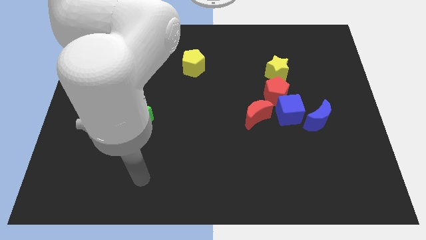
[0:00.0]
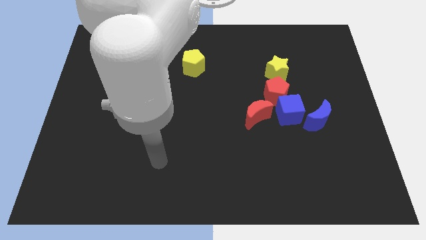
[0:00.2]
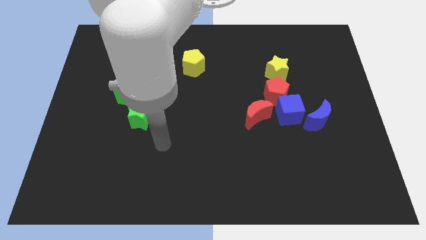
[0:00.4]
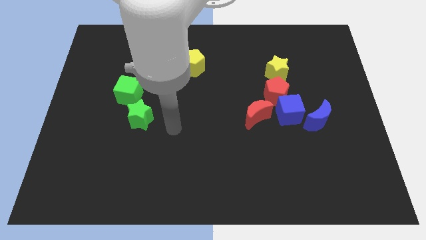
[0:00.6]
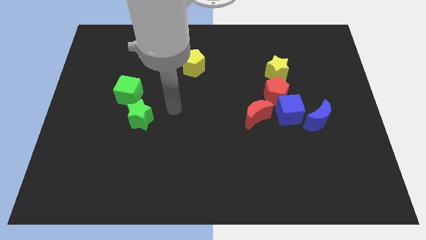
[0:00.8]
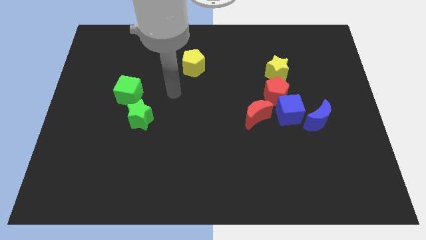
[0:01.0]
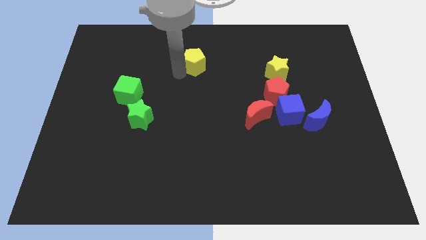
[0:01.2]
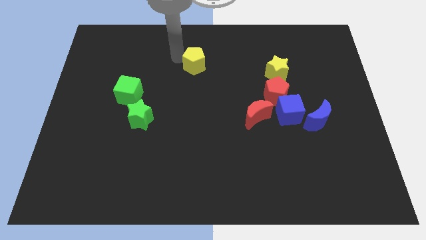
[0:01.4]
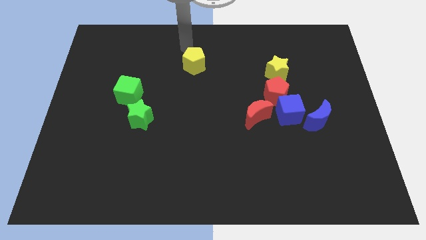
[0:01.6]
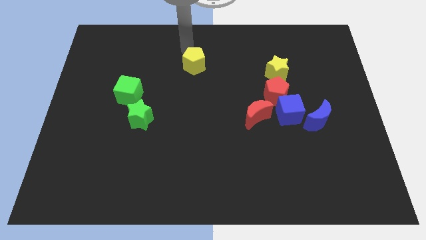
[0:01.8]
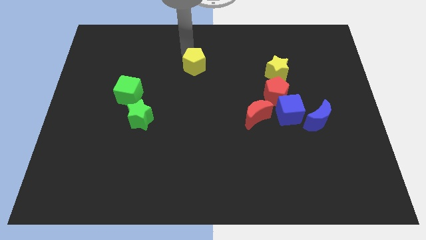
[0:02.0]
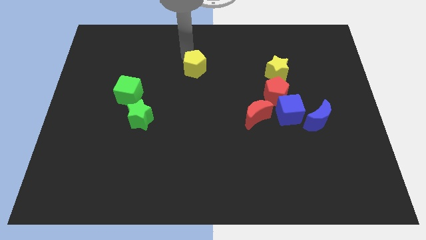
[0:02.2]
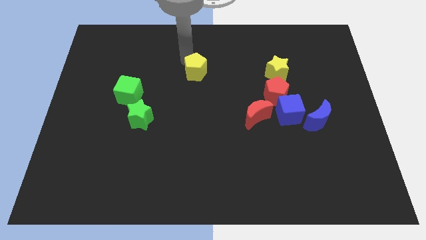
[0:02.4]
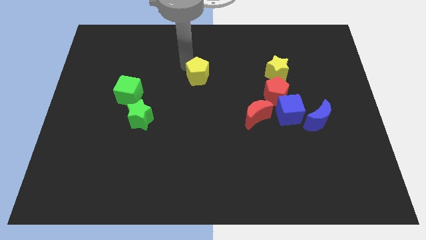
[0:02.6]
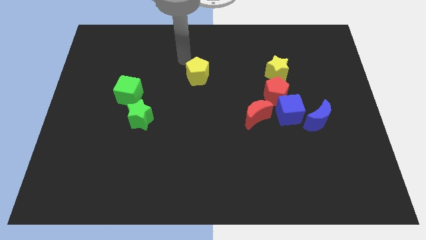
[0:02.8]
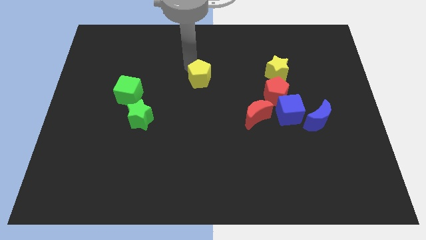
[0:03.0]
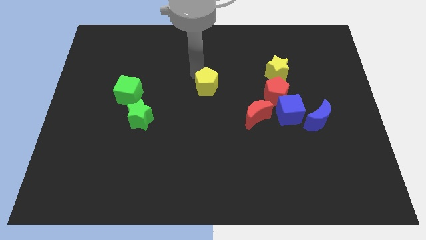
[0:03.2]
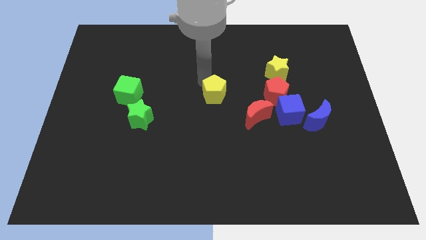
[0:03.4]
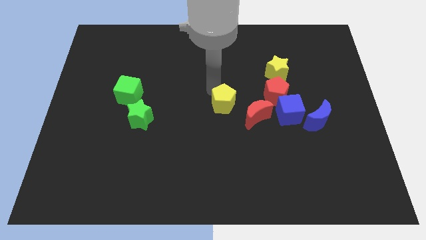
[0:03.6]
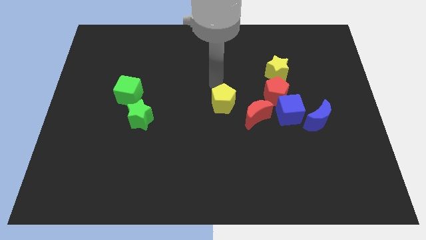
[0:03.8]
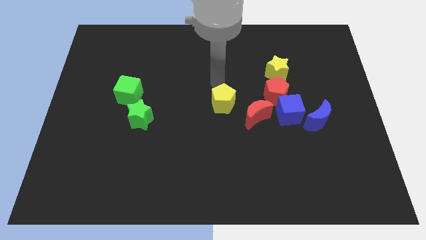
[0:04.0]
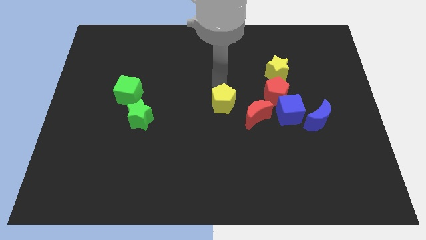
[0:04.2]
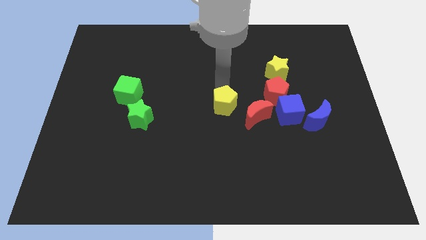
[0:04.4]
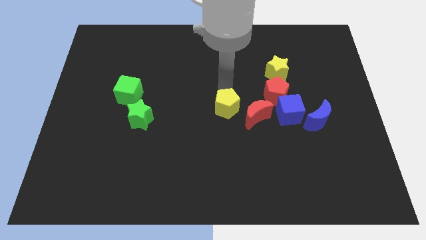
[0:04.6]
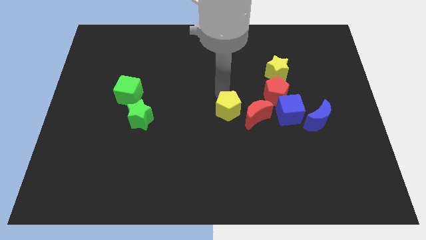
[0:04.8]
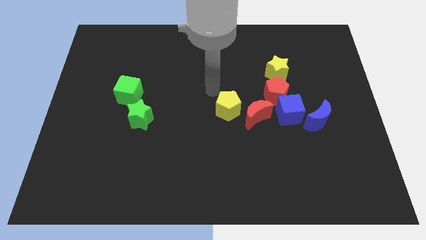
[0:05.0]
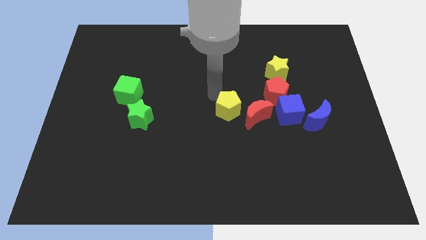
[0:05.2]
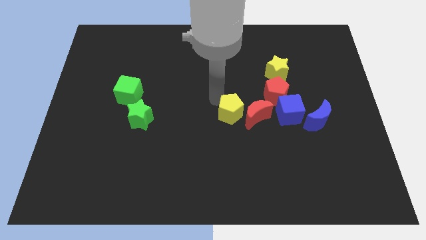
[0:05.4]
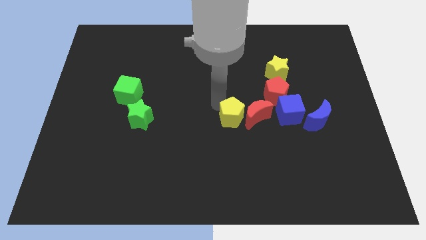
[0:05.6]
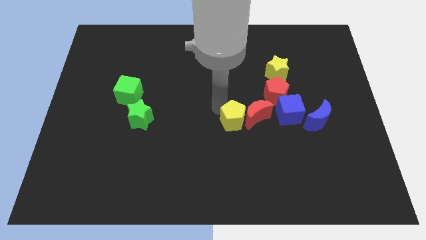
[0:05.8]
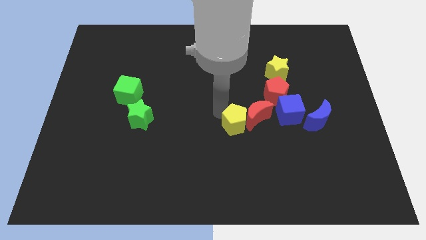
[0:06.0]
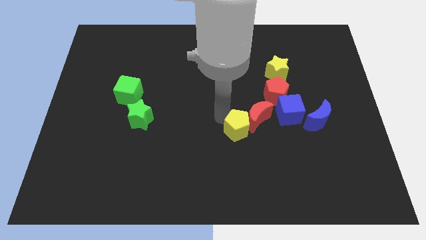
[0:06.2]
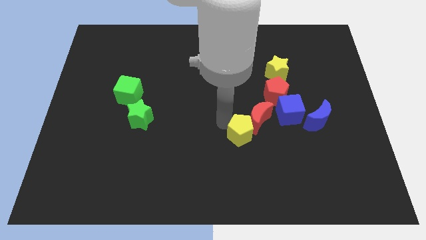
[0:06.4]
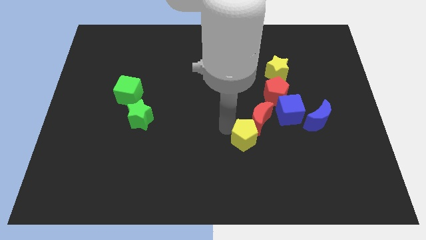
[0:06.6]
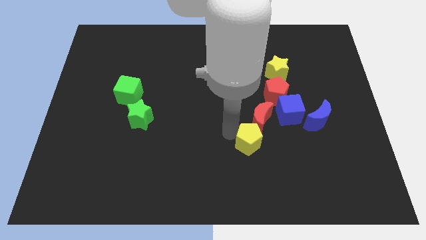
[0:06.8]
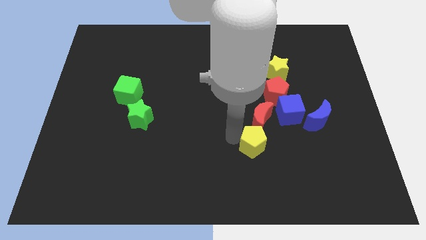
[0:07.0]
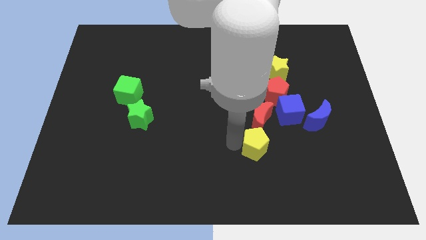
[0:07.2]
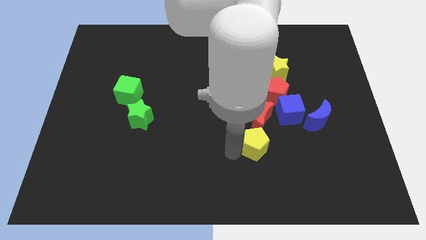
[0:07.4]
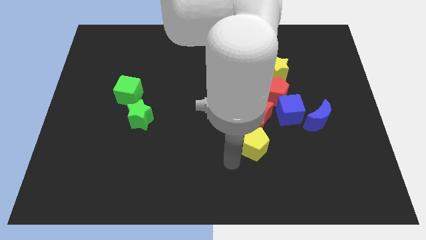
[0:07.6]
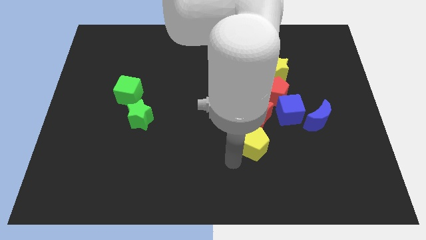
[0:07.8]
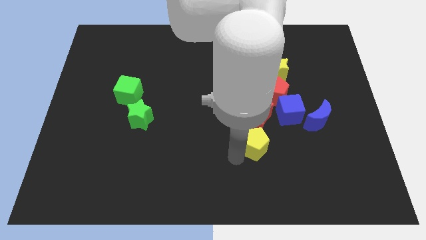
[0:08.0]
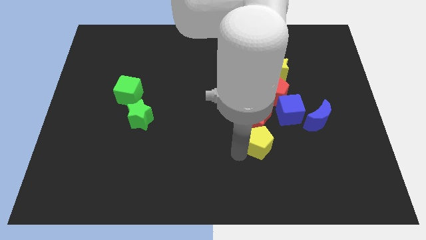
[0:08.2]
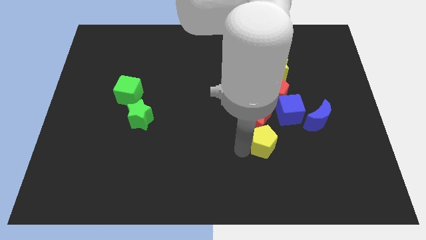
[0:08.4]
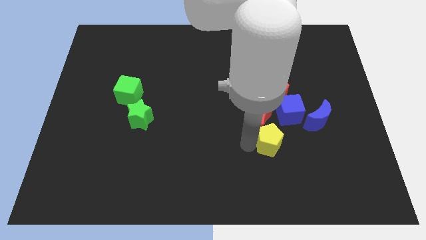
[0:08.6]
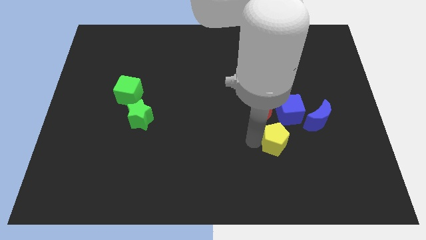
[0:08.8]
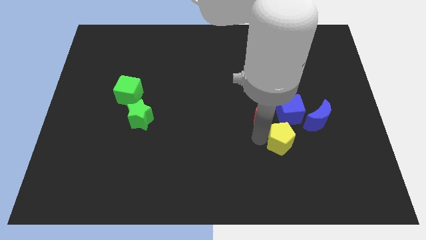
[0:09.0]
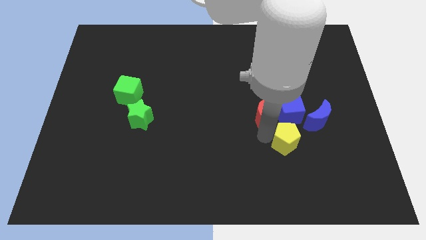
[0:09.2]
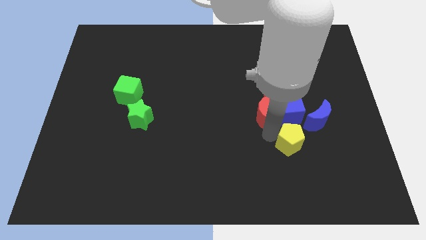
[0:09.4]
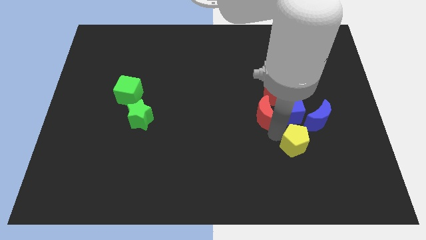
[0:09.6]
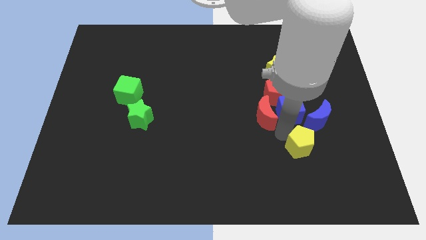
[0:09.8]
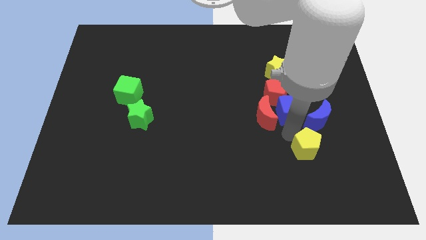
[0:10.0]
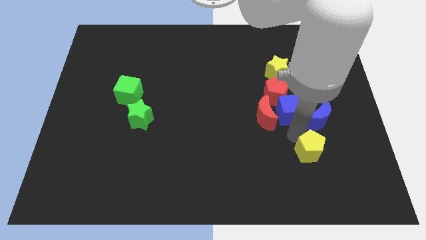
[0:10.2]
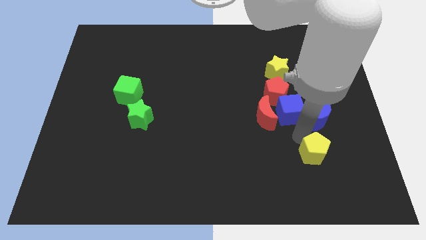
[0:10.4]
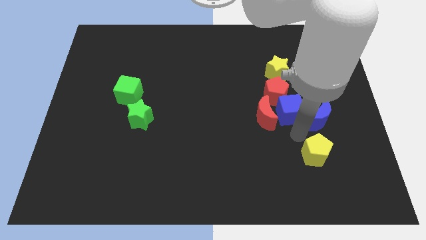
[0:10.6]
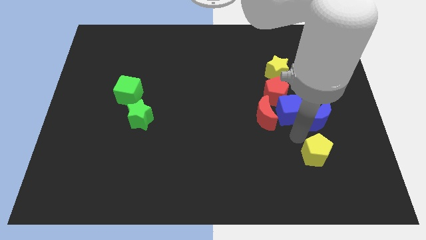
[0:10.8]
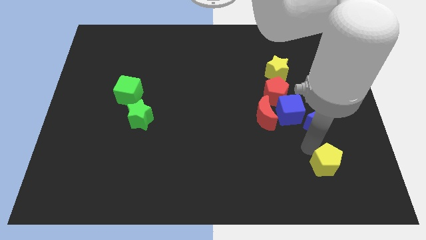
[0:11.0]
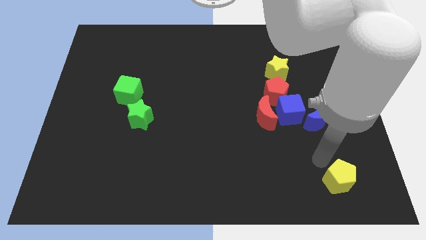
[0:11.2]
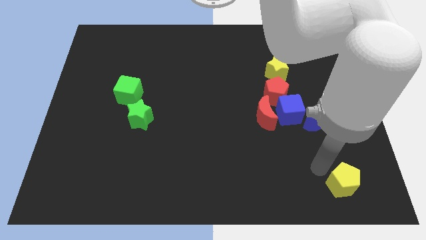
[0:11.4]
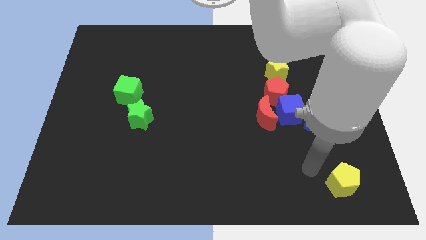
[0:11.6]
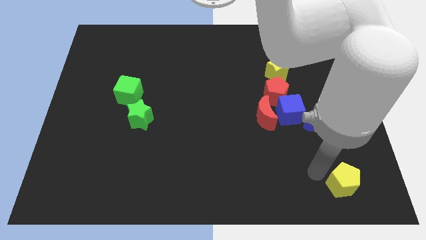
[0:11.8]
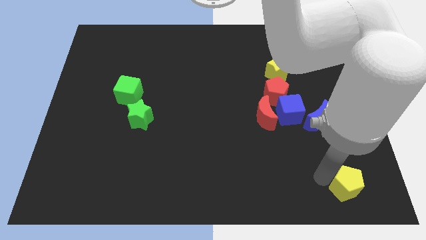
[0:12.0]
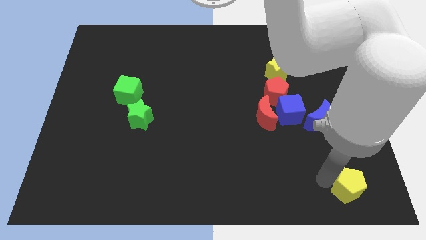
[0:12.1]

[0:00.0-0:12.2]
move the yellow pentagon to the bottom right

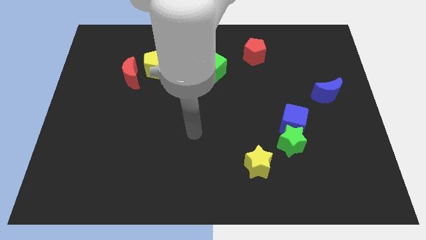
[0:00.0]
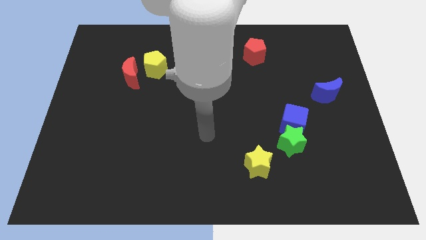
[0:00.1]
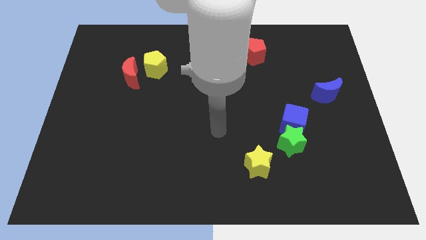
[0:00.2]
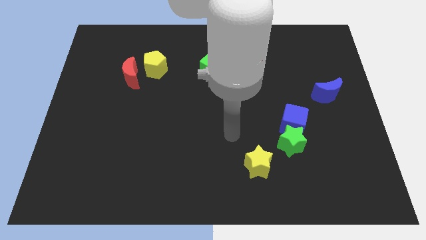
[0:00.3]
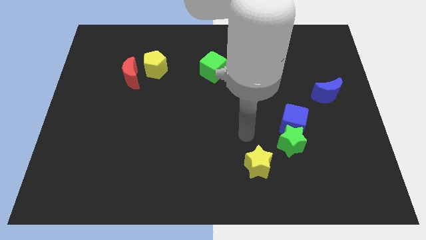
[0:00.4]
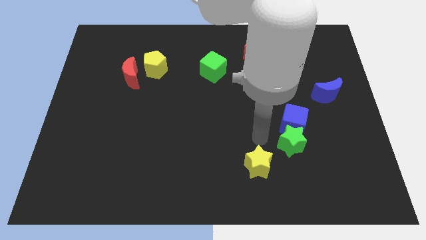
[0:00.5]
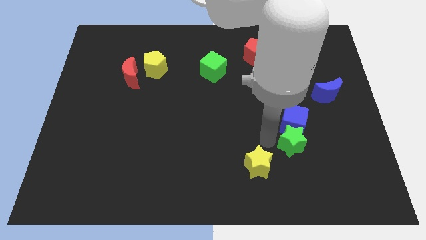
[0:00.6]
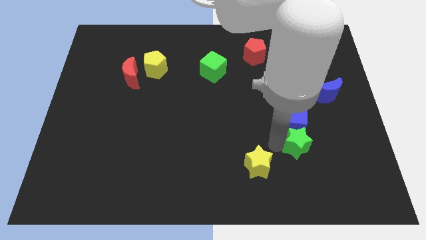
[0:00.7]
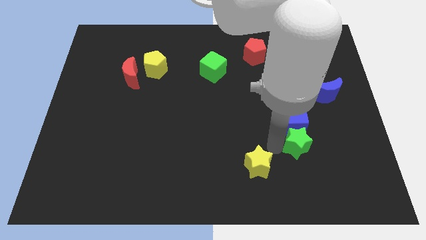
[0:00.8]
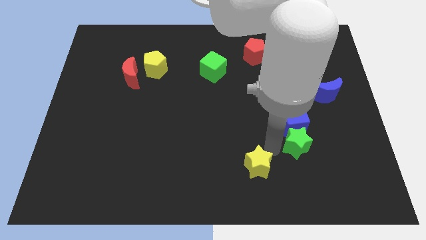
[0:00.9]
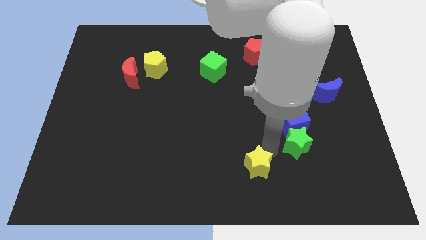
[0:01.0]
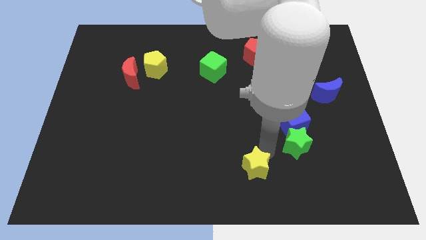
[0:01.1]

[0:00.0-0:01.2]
move the yellow star to the bottom side
